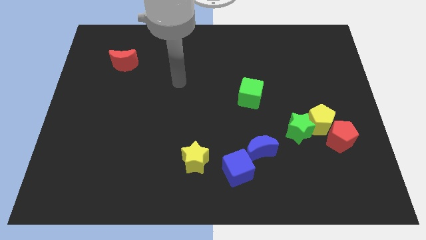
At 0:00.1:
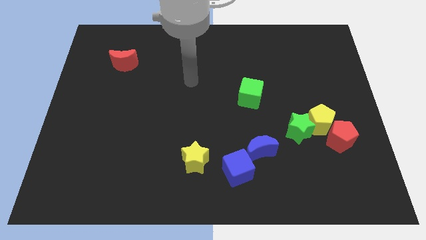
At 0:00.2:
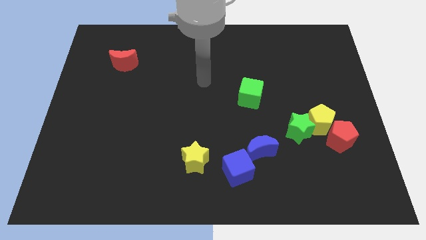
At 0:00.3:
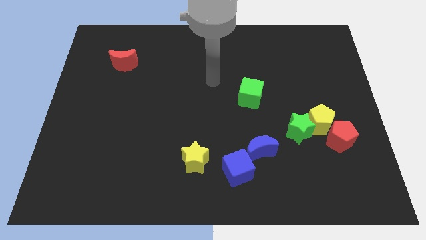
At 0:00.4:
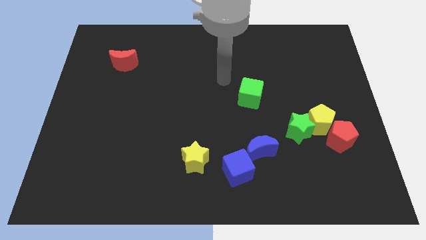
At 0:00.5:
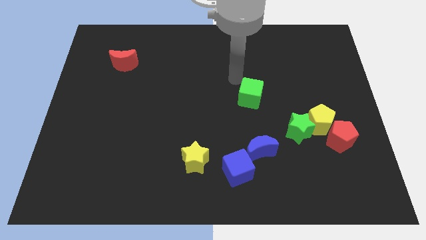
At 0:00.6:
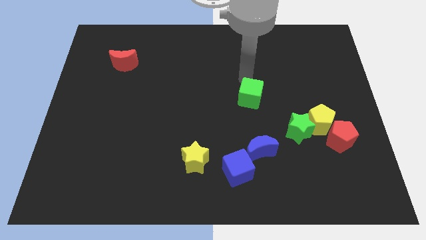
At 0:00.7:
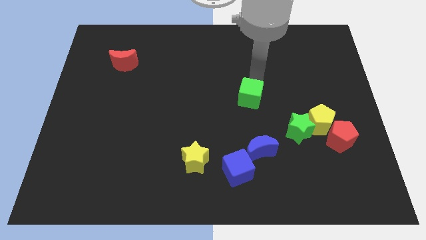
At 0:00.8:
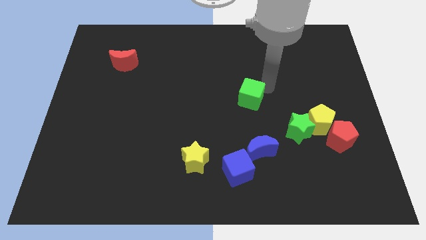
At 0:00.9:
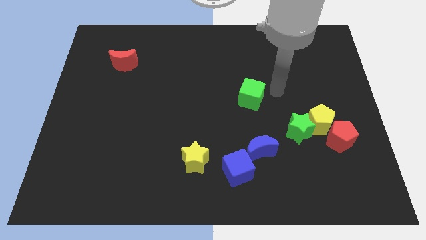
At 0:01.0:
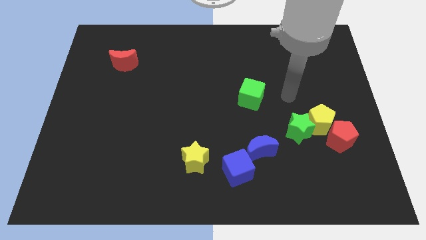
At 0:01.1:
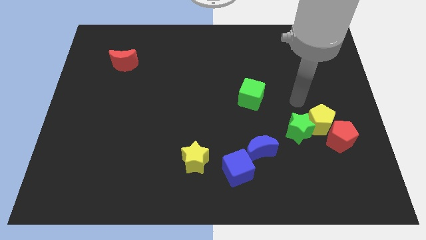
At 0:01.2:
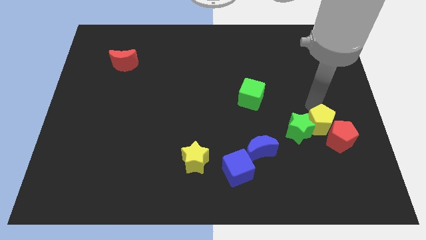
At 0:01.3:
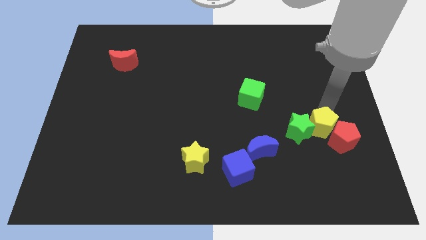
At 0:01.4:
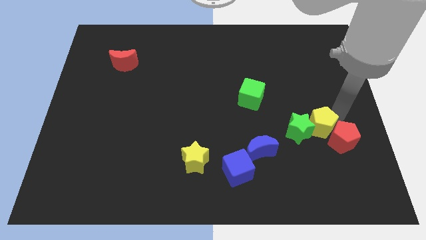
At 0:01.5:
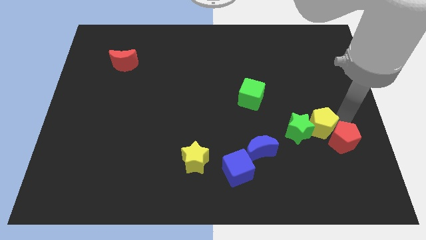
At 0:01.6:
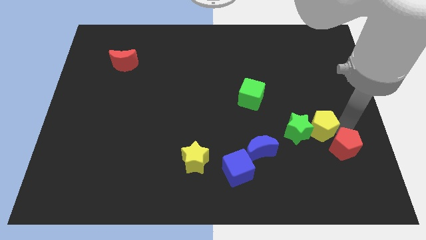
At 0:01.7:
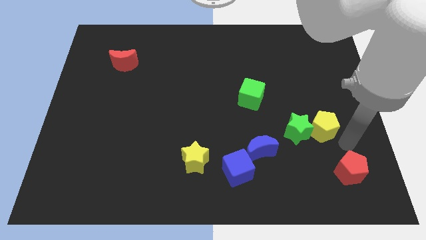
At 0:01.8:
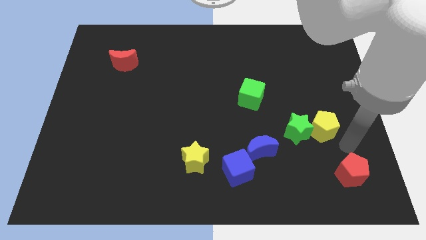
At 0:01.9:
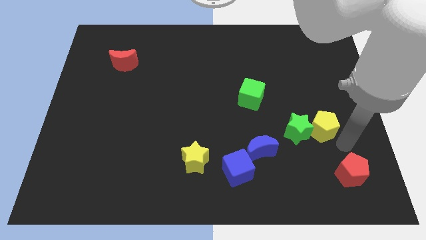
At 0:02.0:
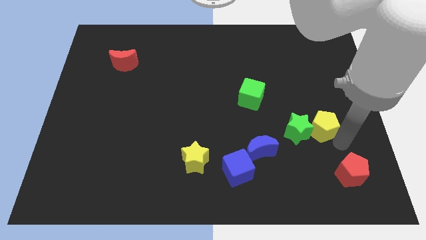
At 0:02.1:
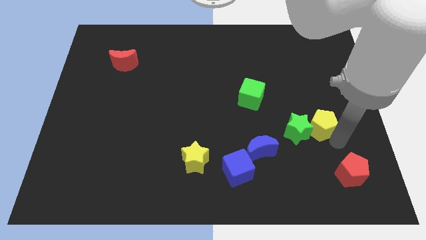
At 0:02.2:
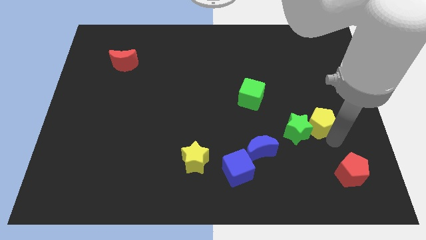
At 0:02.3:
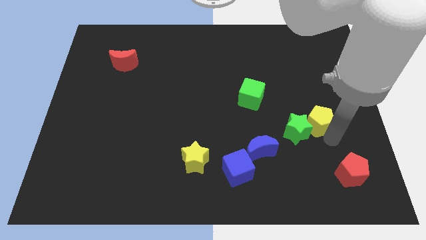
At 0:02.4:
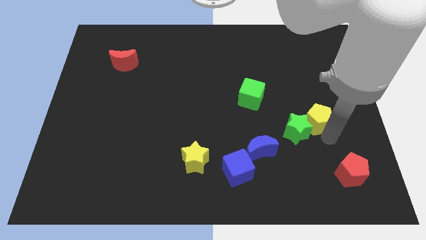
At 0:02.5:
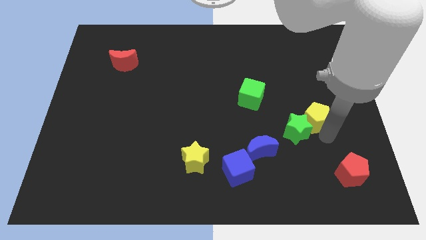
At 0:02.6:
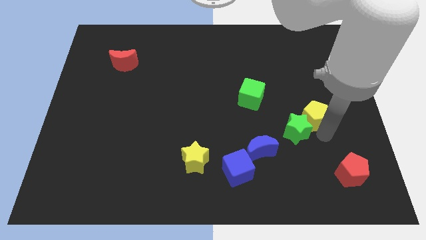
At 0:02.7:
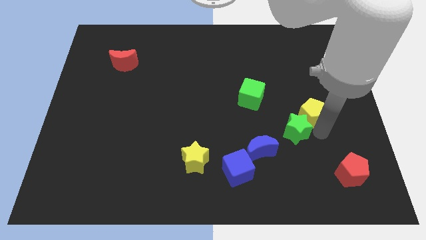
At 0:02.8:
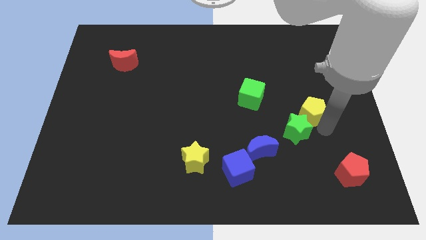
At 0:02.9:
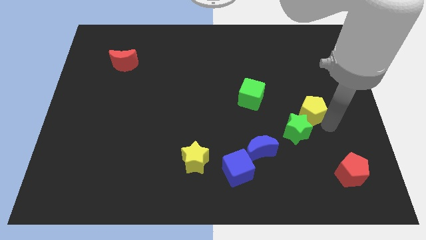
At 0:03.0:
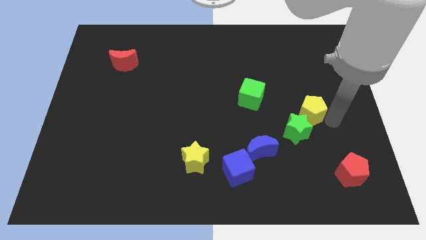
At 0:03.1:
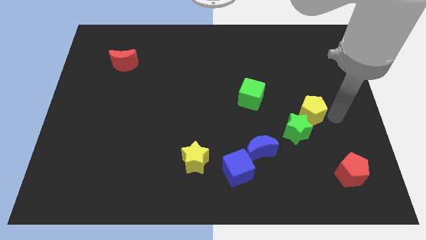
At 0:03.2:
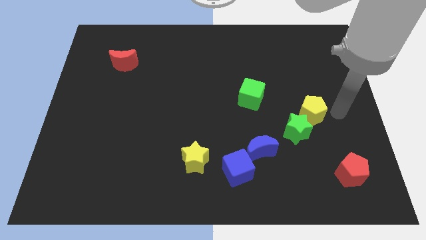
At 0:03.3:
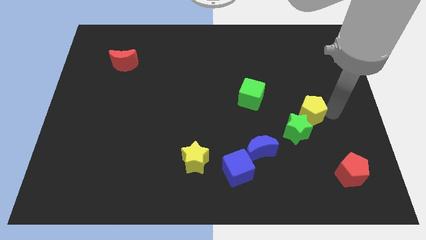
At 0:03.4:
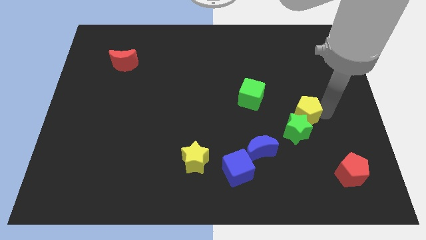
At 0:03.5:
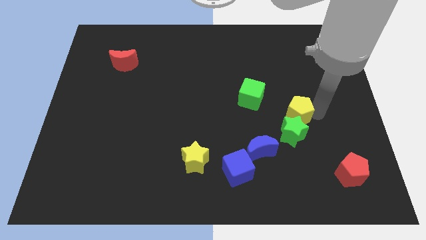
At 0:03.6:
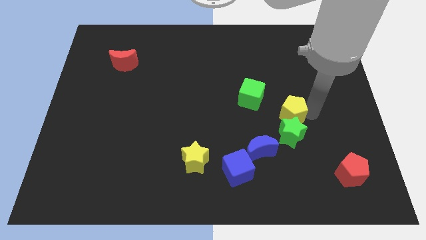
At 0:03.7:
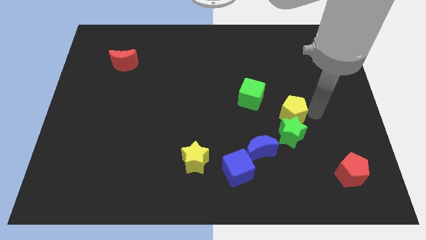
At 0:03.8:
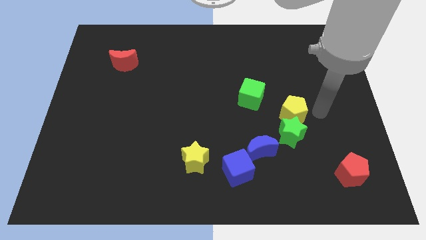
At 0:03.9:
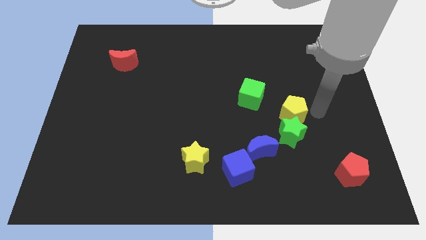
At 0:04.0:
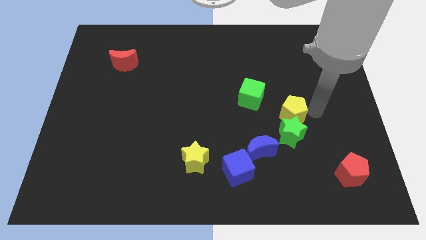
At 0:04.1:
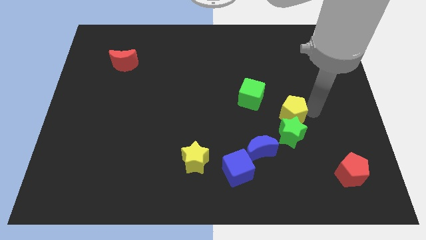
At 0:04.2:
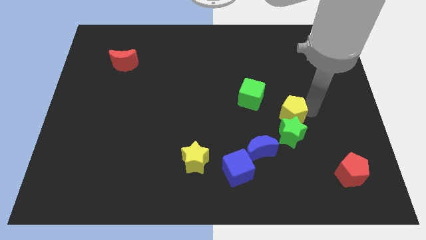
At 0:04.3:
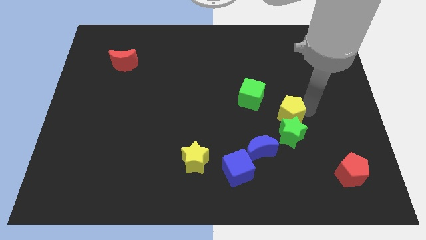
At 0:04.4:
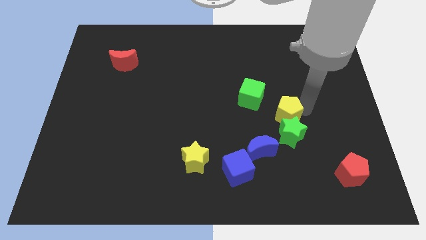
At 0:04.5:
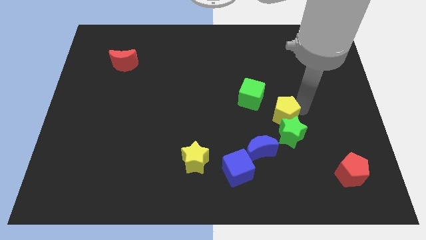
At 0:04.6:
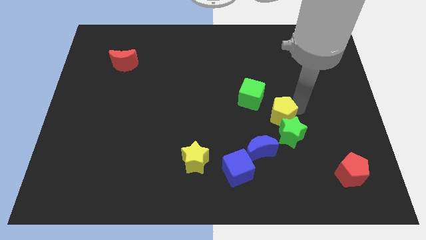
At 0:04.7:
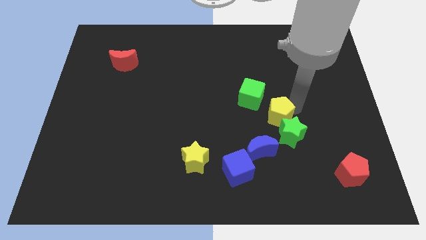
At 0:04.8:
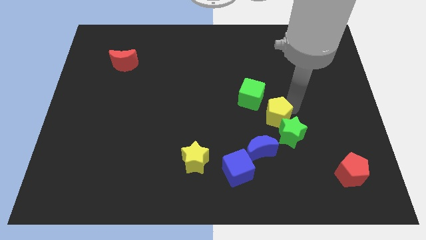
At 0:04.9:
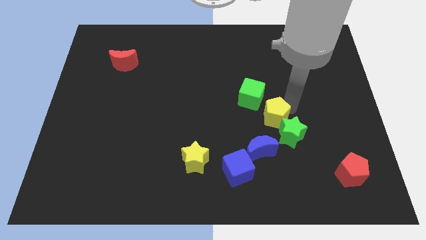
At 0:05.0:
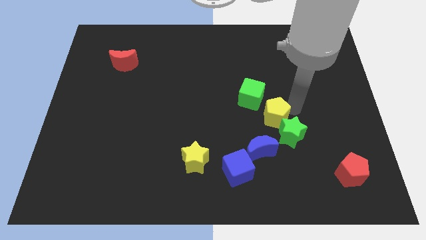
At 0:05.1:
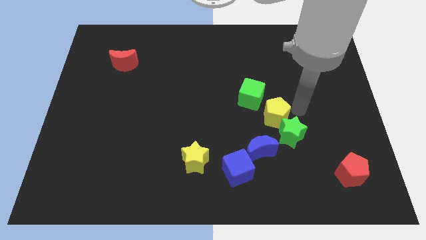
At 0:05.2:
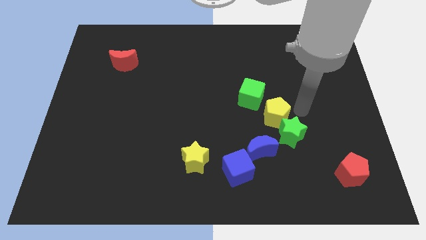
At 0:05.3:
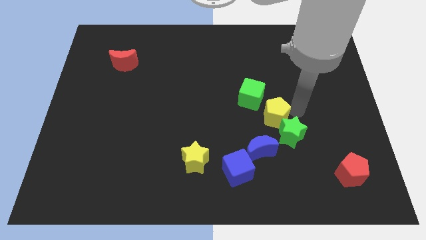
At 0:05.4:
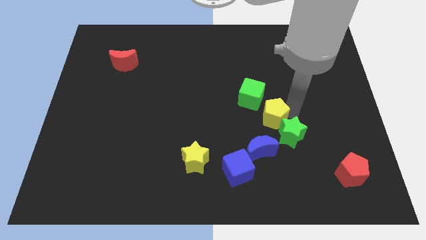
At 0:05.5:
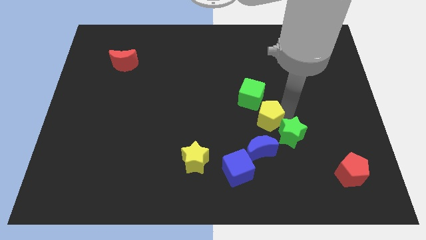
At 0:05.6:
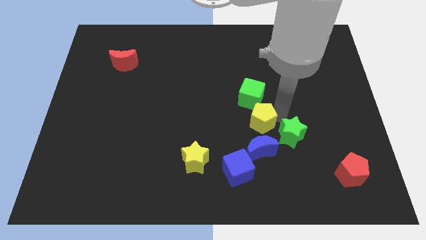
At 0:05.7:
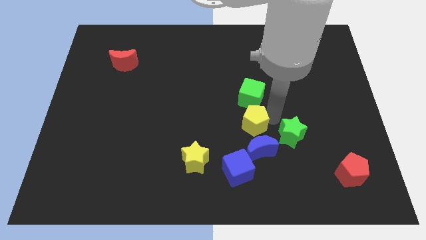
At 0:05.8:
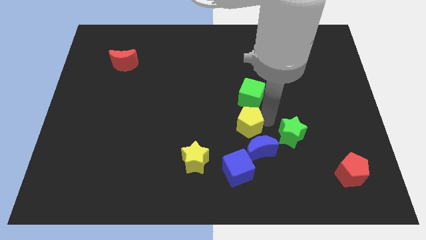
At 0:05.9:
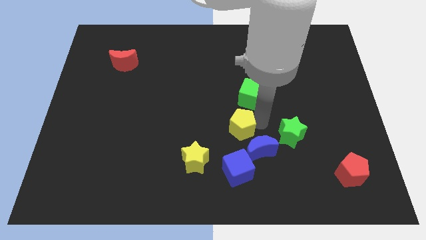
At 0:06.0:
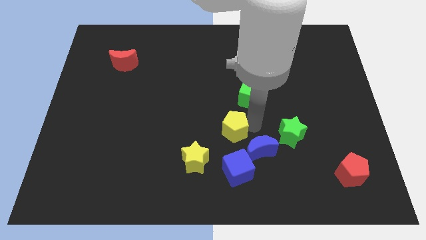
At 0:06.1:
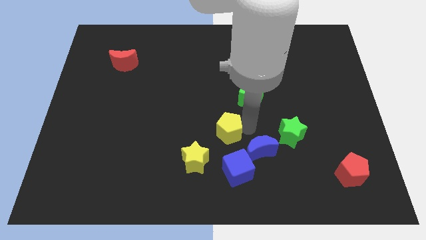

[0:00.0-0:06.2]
push the yellow pentagon to the left

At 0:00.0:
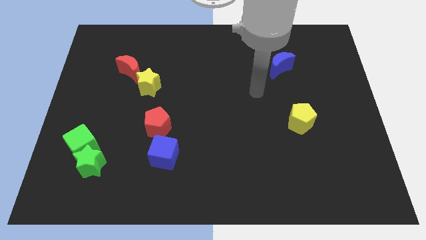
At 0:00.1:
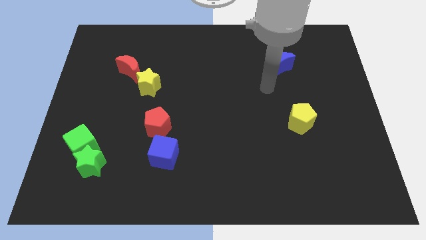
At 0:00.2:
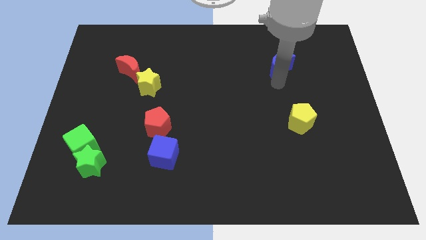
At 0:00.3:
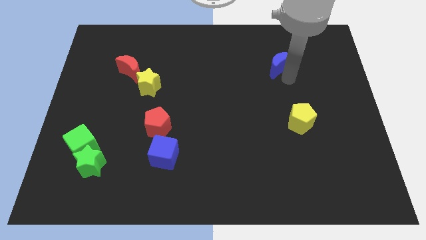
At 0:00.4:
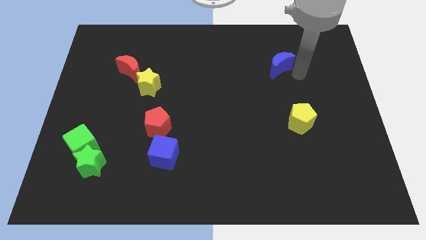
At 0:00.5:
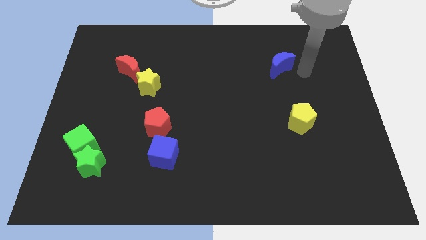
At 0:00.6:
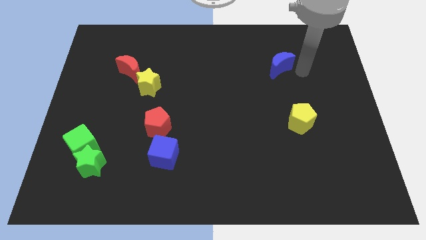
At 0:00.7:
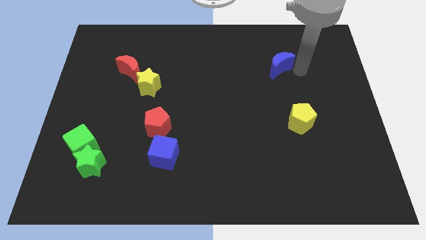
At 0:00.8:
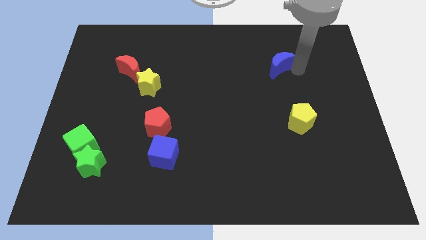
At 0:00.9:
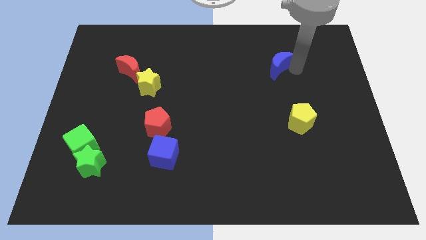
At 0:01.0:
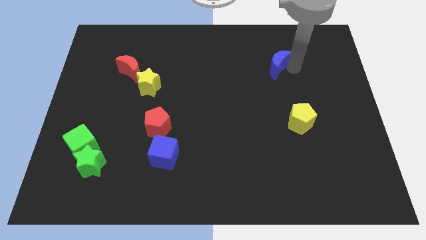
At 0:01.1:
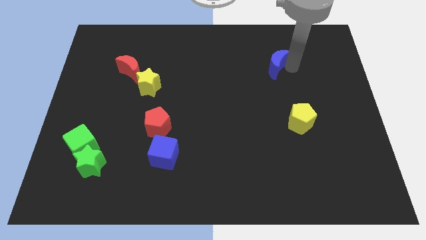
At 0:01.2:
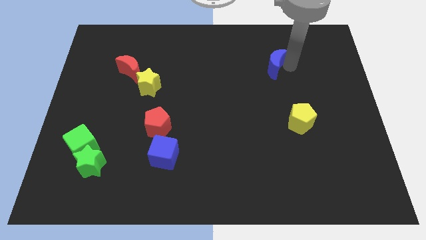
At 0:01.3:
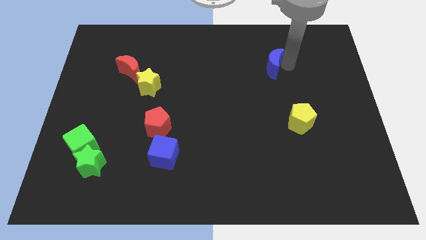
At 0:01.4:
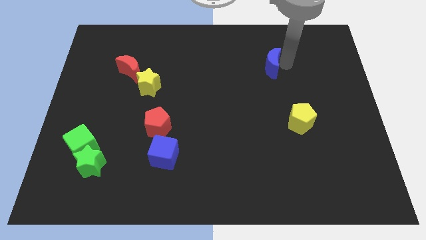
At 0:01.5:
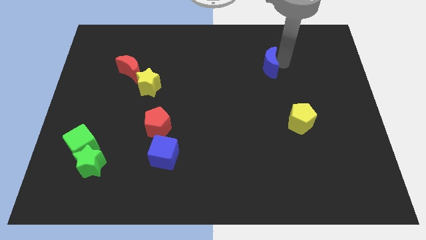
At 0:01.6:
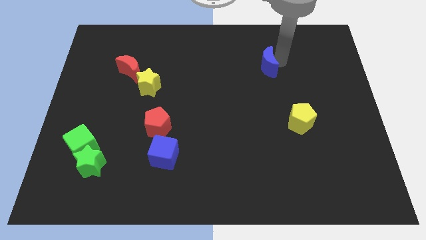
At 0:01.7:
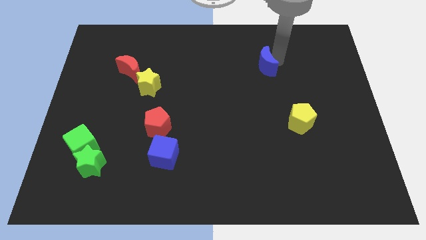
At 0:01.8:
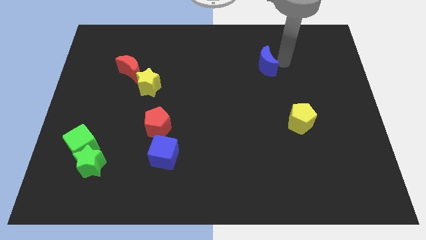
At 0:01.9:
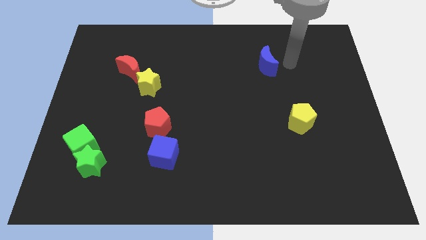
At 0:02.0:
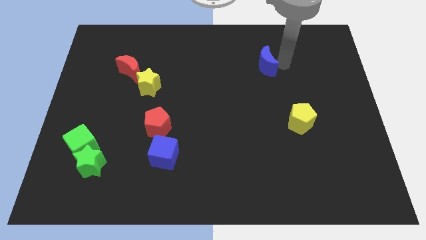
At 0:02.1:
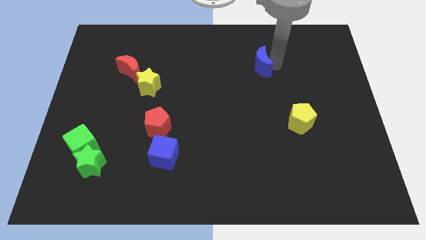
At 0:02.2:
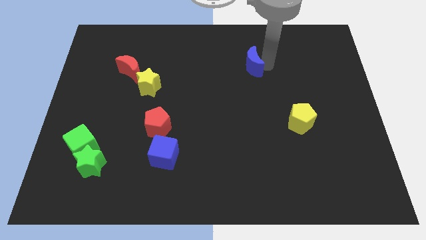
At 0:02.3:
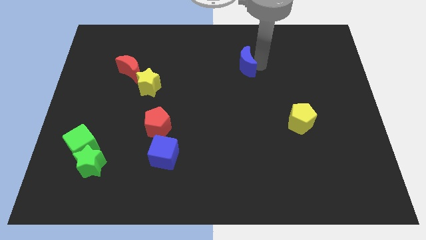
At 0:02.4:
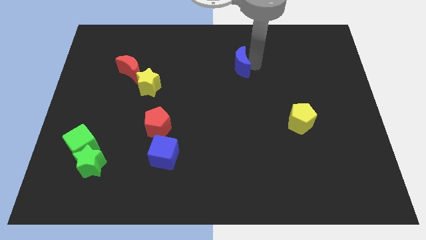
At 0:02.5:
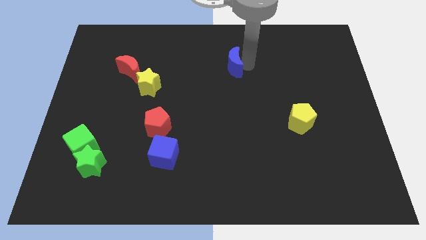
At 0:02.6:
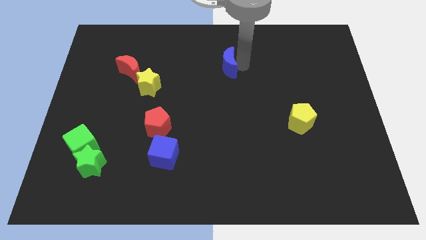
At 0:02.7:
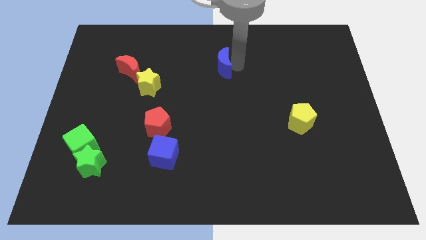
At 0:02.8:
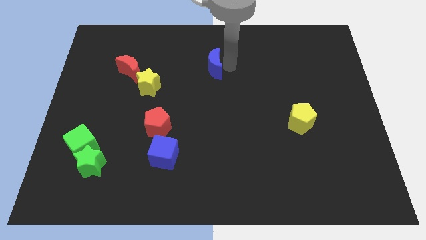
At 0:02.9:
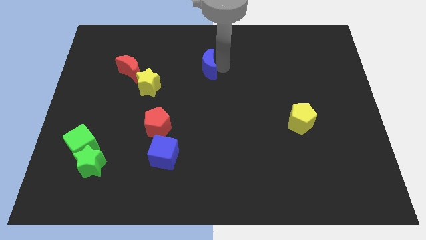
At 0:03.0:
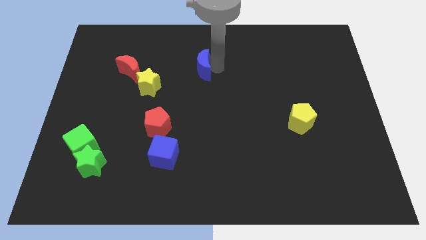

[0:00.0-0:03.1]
push the blue moon to the left
